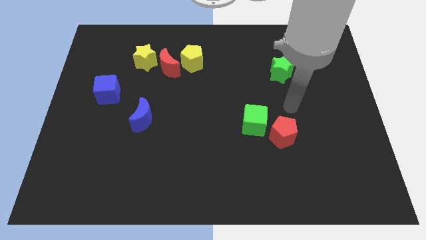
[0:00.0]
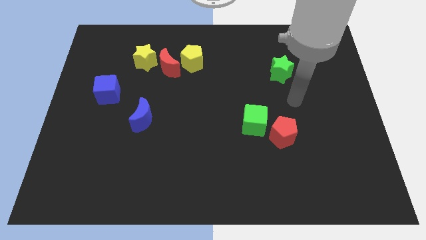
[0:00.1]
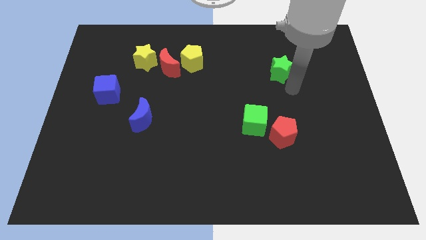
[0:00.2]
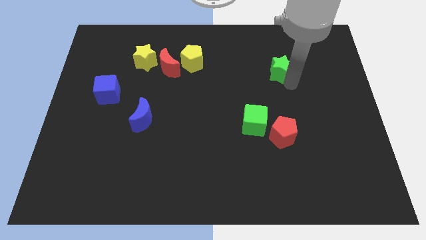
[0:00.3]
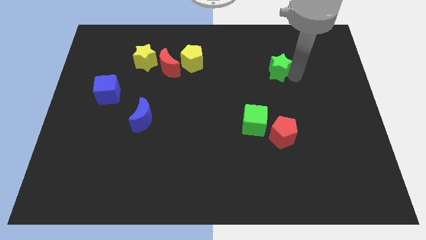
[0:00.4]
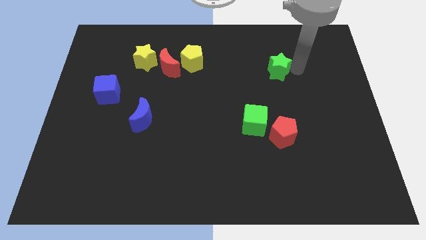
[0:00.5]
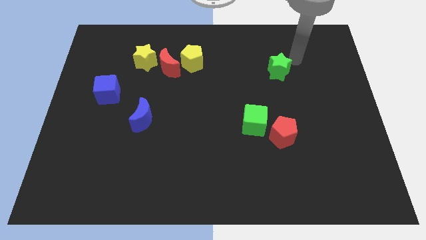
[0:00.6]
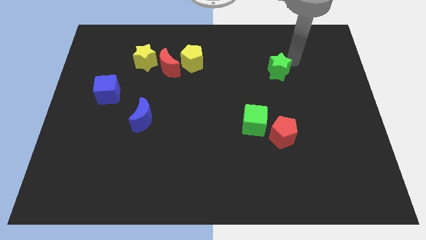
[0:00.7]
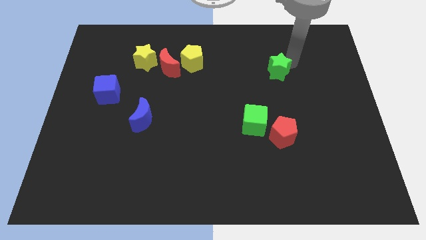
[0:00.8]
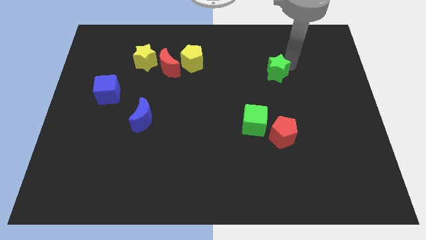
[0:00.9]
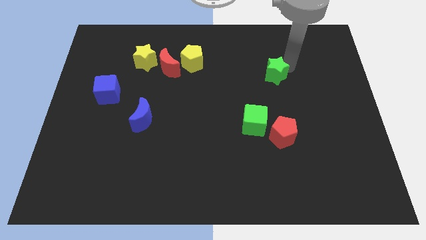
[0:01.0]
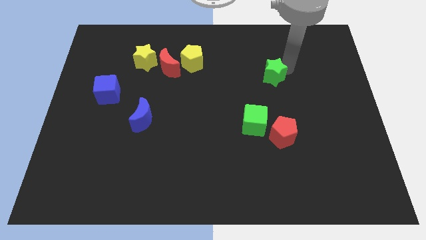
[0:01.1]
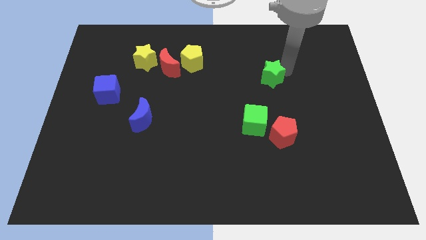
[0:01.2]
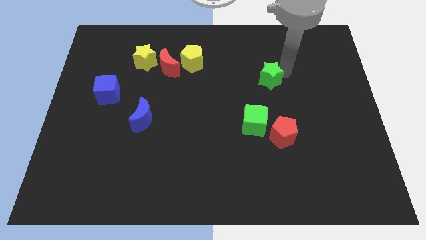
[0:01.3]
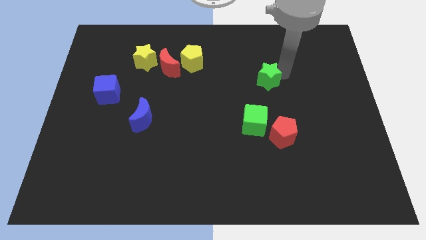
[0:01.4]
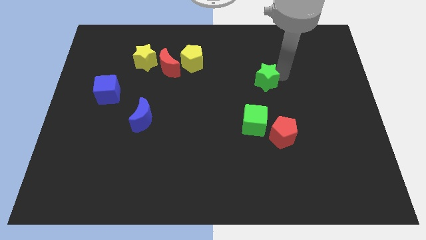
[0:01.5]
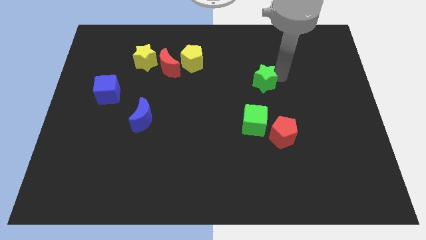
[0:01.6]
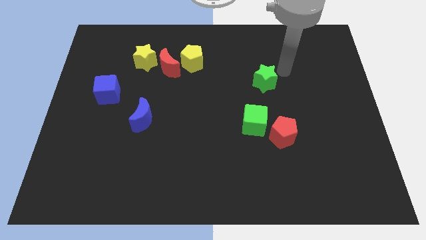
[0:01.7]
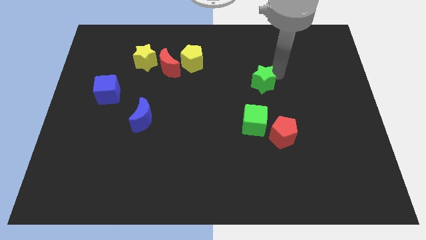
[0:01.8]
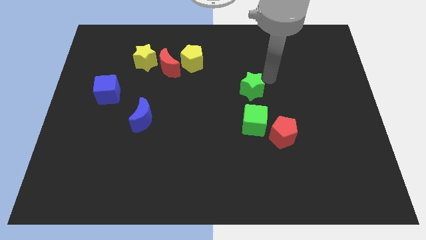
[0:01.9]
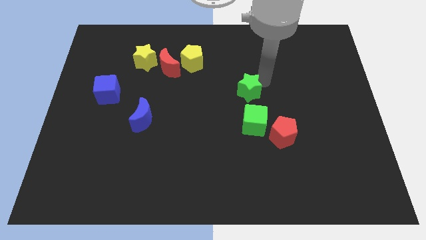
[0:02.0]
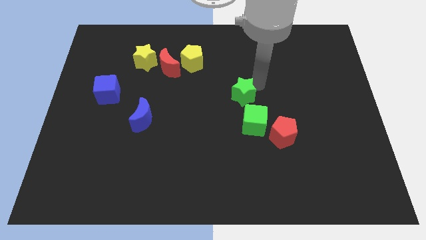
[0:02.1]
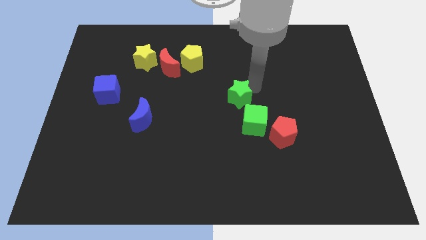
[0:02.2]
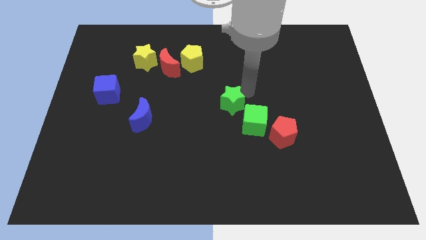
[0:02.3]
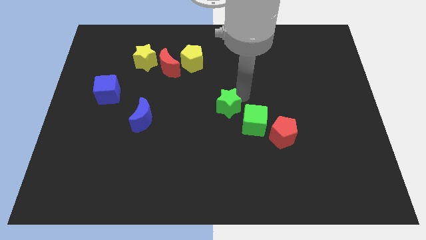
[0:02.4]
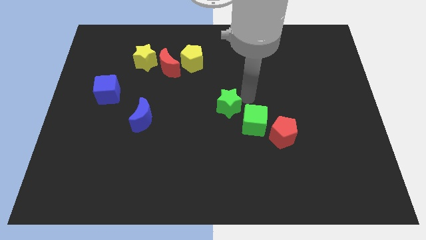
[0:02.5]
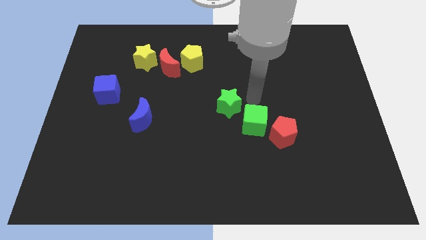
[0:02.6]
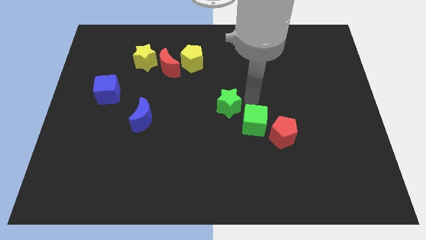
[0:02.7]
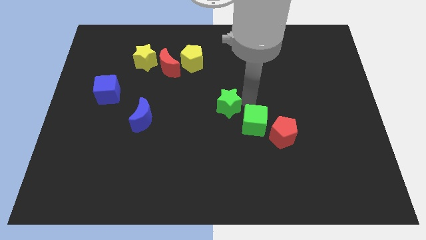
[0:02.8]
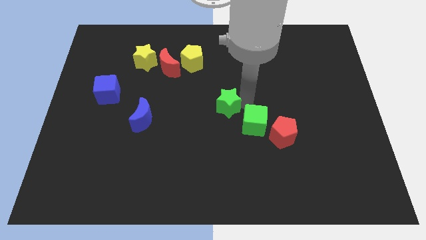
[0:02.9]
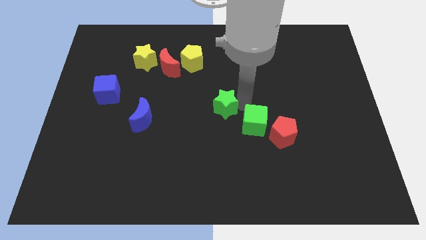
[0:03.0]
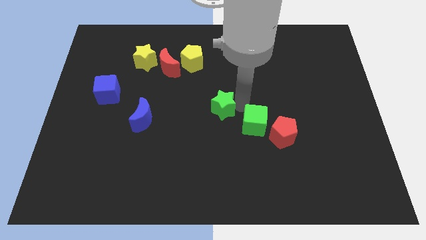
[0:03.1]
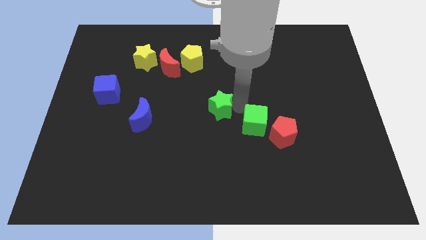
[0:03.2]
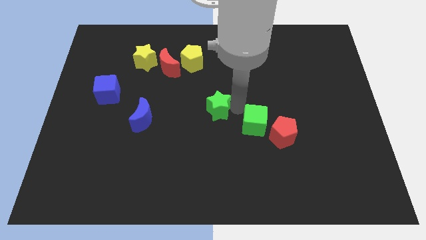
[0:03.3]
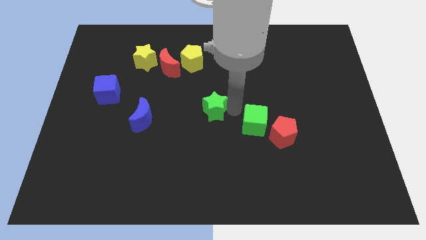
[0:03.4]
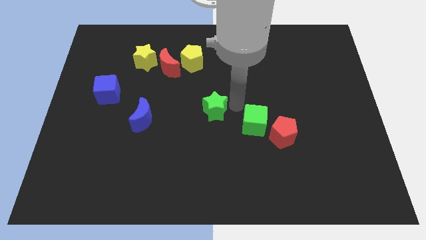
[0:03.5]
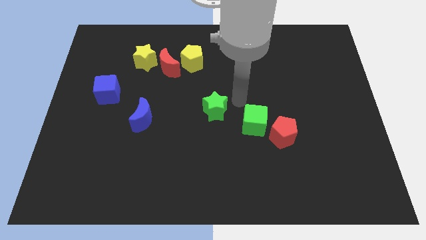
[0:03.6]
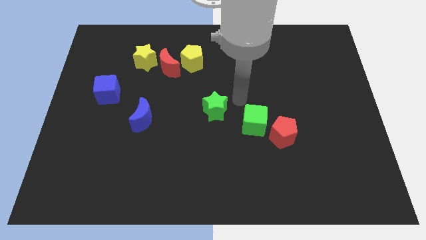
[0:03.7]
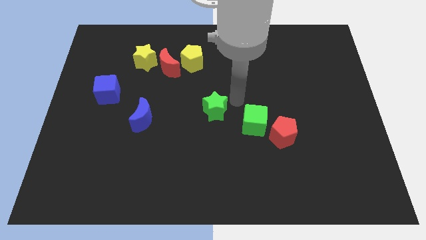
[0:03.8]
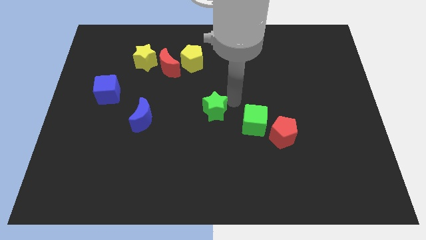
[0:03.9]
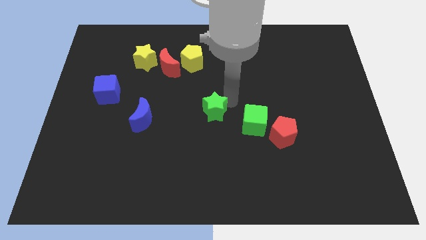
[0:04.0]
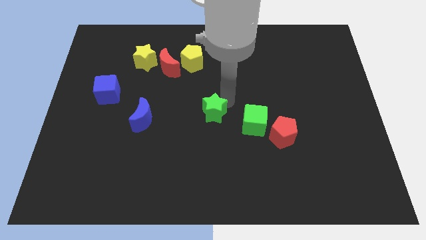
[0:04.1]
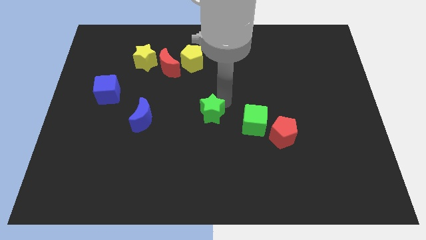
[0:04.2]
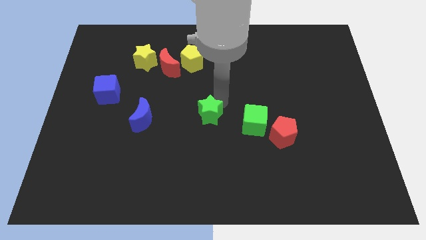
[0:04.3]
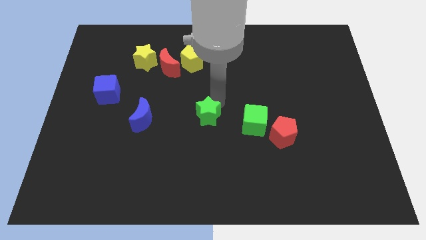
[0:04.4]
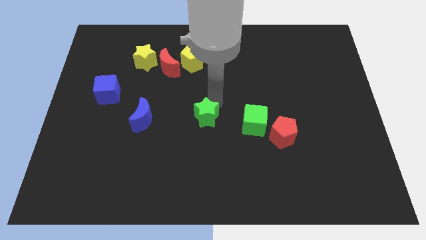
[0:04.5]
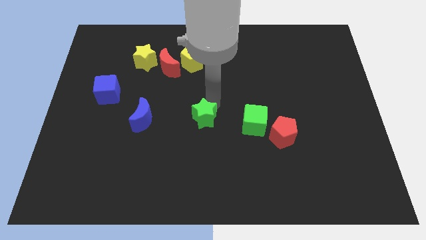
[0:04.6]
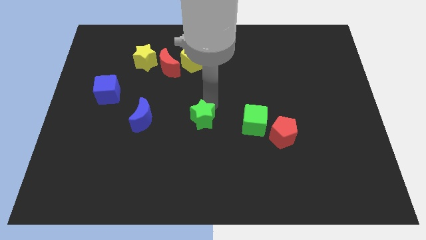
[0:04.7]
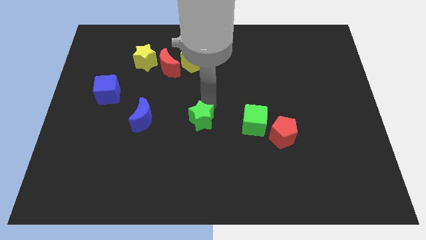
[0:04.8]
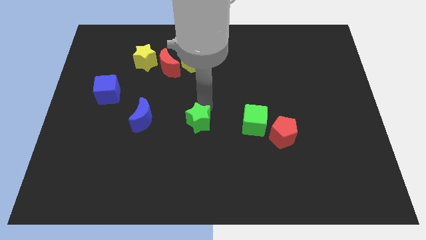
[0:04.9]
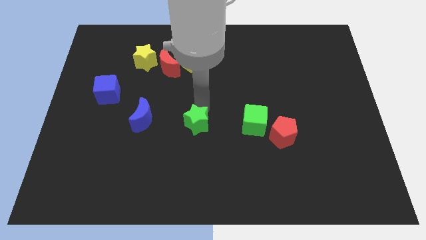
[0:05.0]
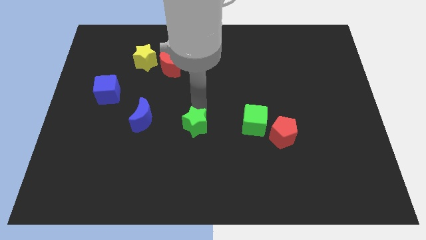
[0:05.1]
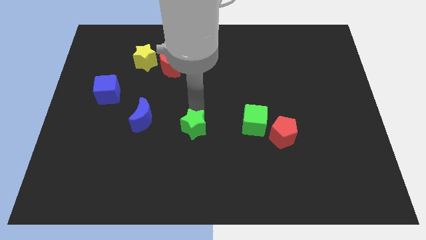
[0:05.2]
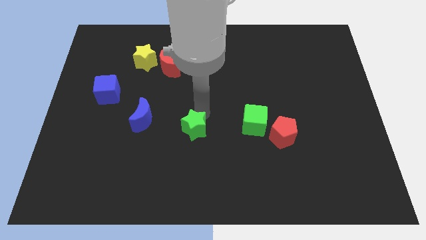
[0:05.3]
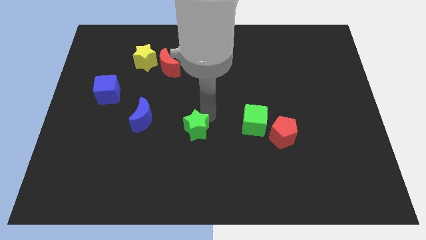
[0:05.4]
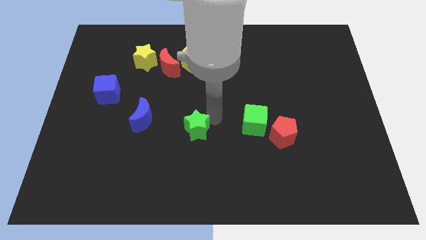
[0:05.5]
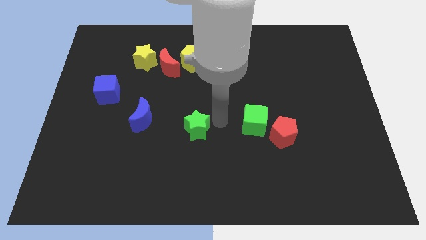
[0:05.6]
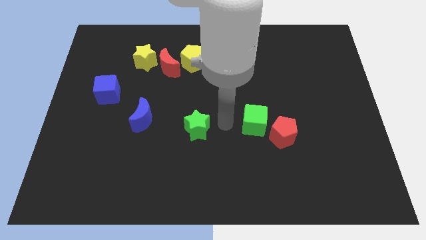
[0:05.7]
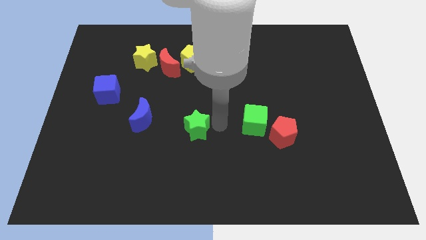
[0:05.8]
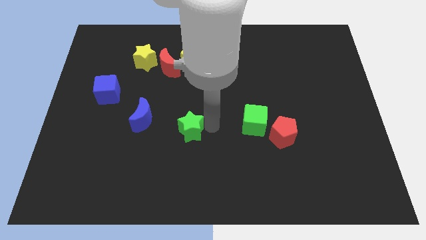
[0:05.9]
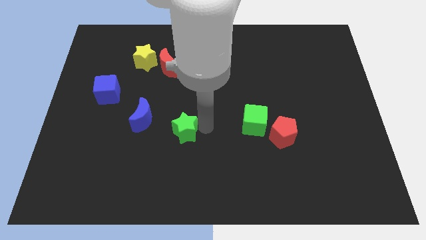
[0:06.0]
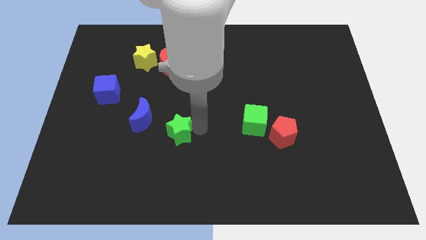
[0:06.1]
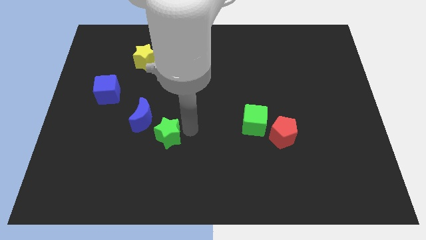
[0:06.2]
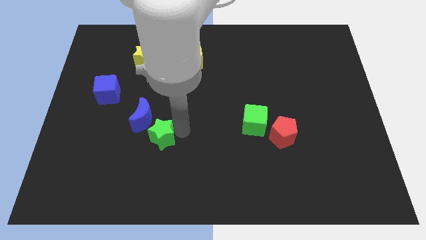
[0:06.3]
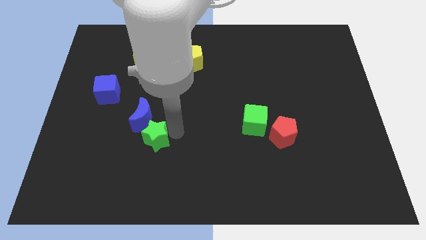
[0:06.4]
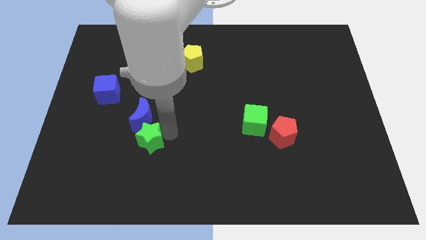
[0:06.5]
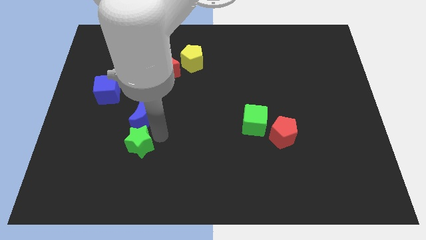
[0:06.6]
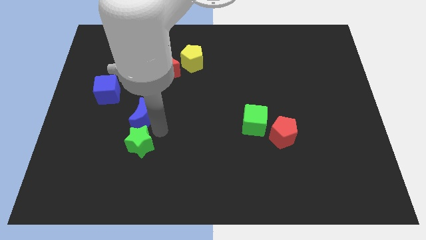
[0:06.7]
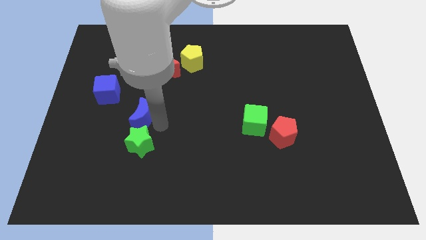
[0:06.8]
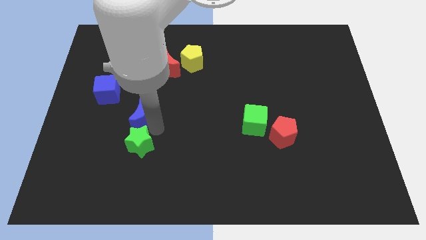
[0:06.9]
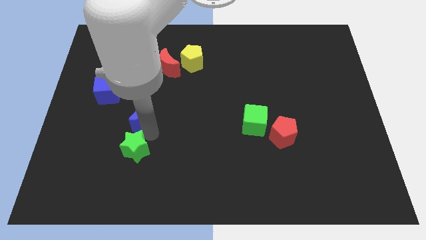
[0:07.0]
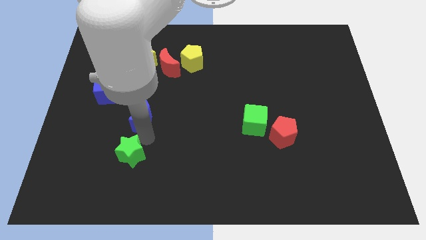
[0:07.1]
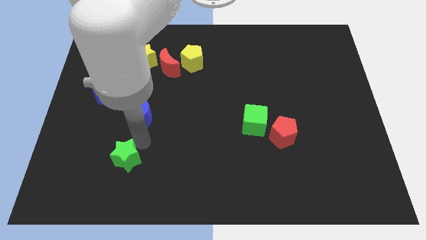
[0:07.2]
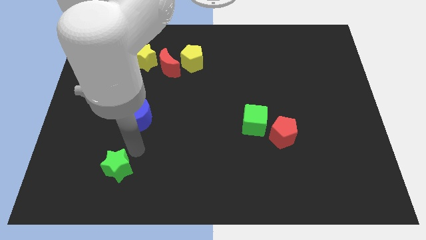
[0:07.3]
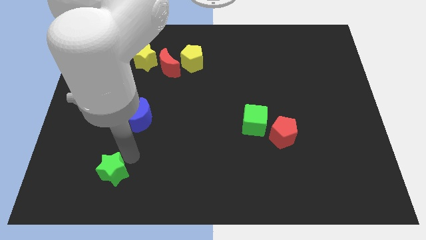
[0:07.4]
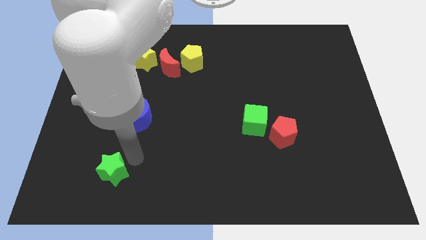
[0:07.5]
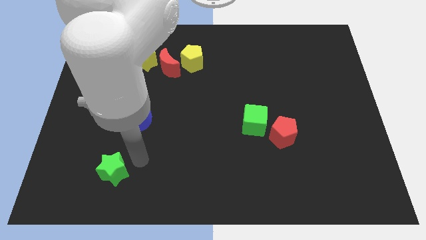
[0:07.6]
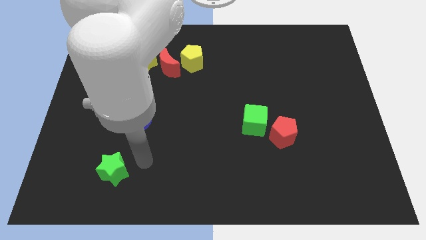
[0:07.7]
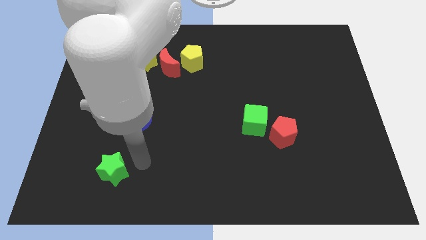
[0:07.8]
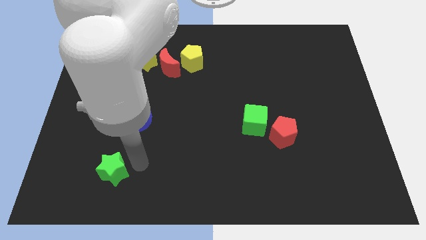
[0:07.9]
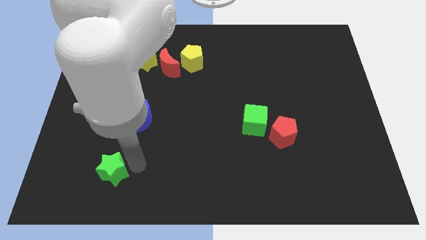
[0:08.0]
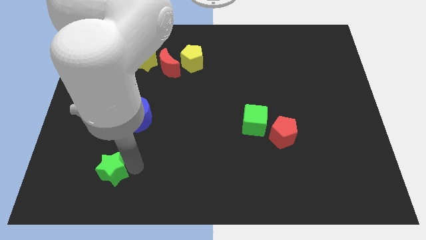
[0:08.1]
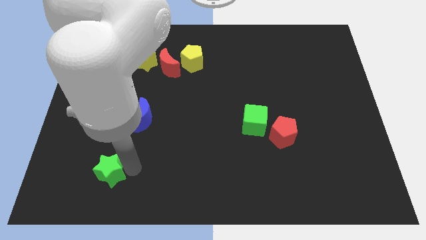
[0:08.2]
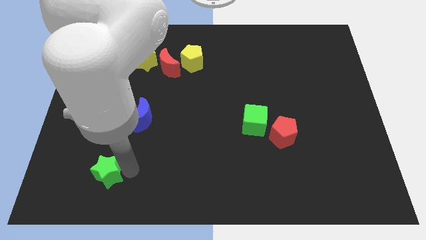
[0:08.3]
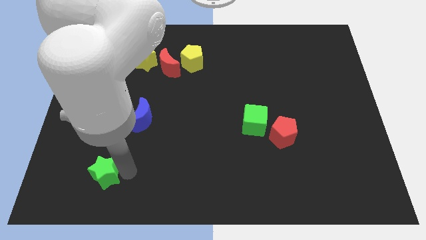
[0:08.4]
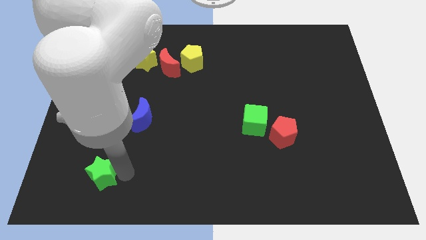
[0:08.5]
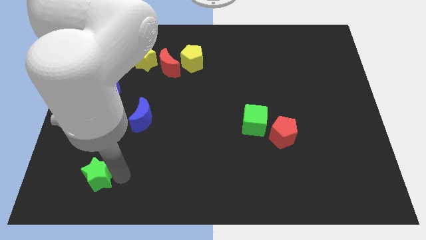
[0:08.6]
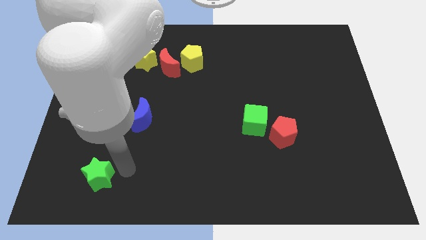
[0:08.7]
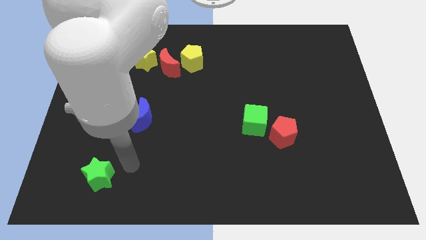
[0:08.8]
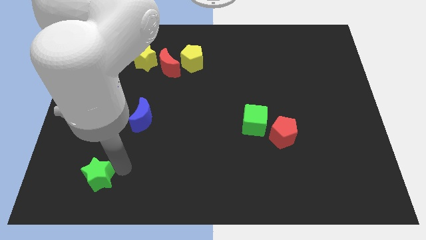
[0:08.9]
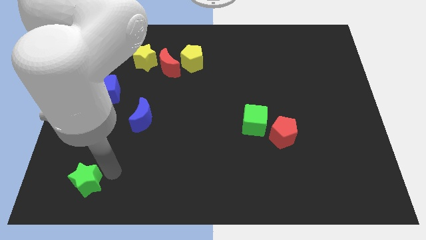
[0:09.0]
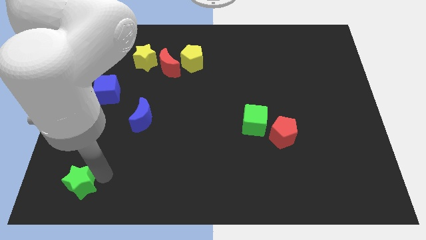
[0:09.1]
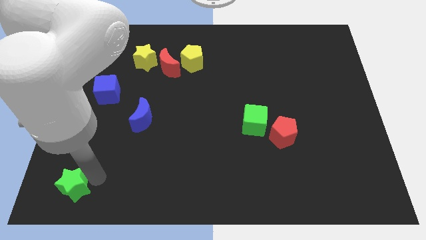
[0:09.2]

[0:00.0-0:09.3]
slide the green star to the lower left corner
